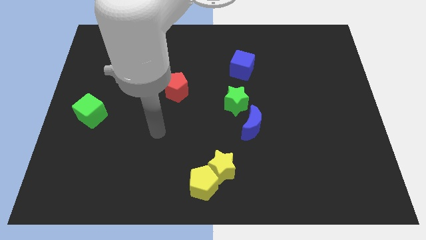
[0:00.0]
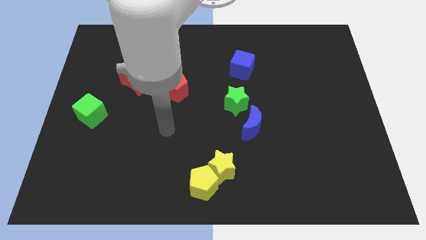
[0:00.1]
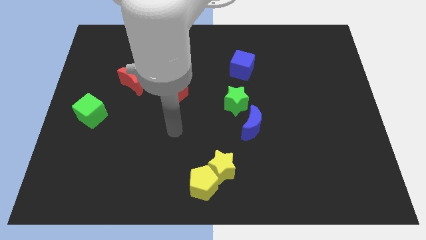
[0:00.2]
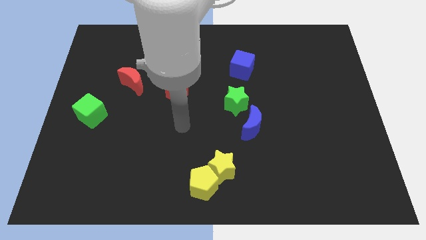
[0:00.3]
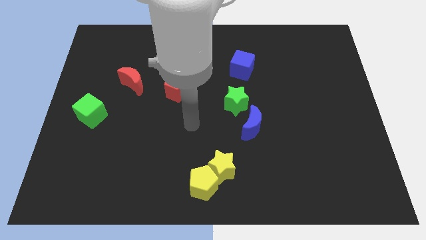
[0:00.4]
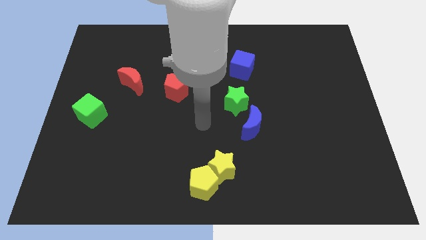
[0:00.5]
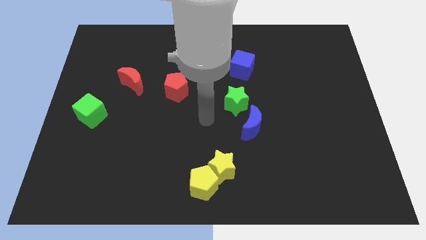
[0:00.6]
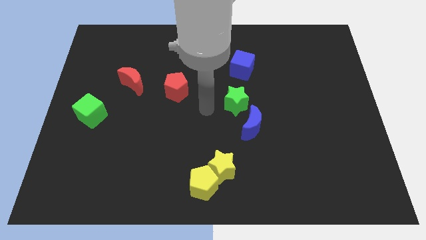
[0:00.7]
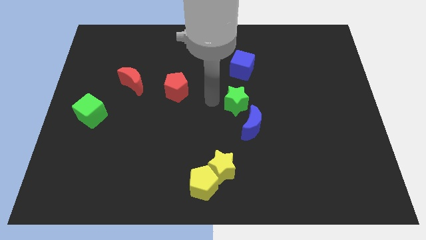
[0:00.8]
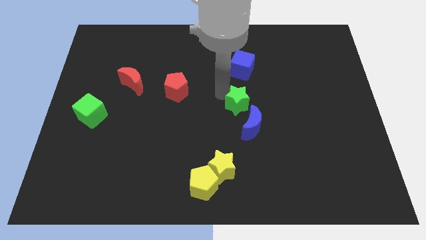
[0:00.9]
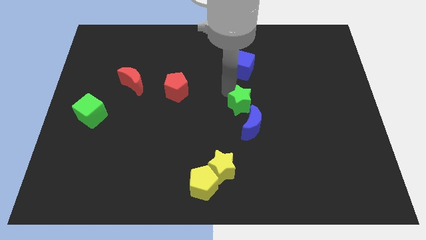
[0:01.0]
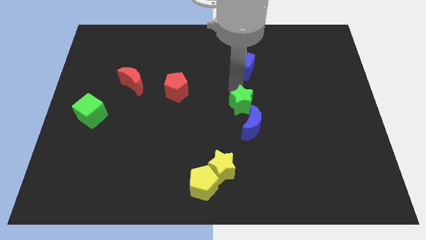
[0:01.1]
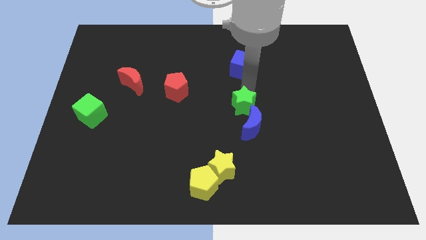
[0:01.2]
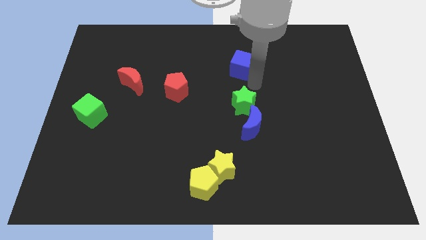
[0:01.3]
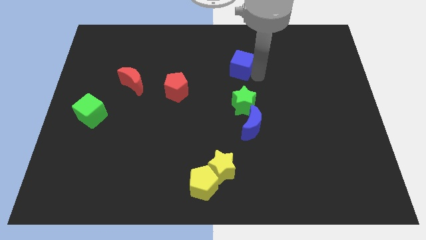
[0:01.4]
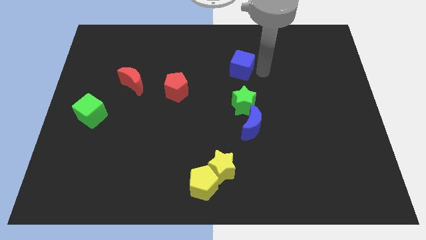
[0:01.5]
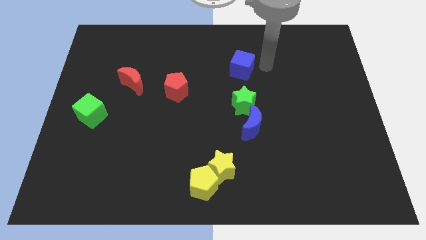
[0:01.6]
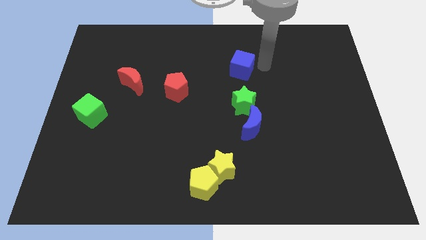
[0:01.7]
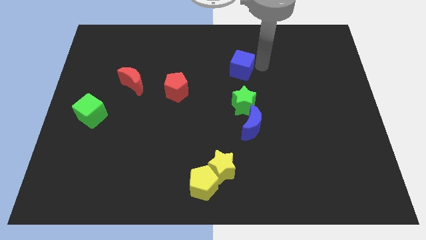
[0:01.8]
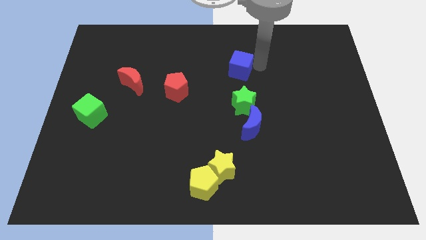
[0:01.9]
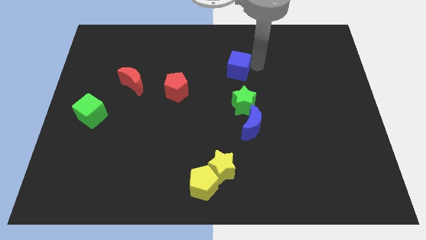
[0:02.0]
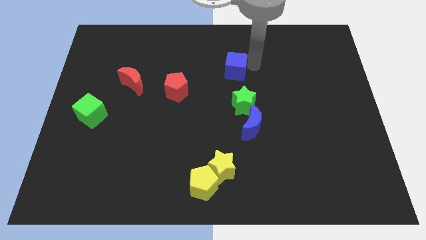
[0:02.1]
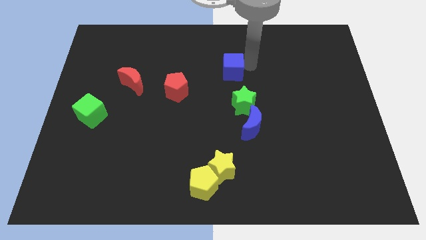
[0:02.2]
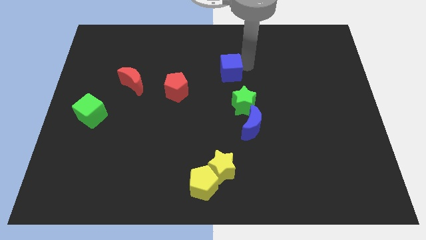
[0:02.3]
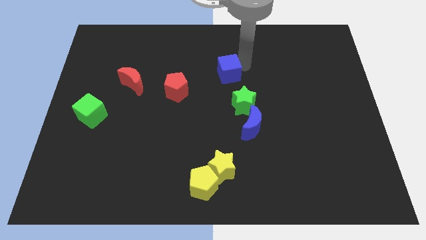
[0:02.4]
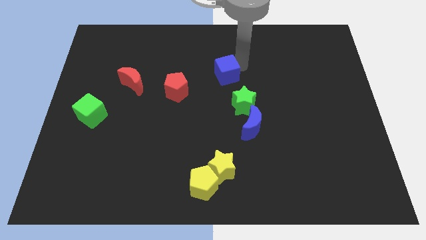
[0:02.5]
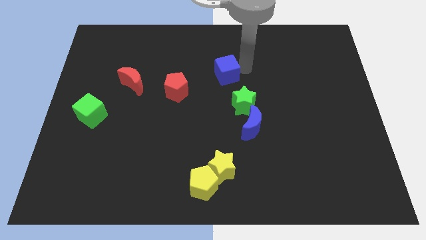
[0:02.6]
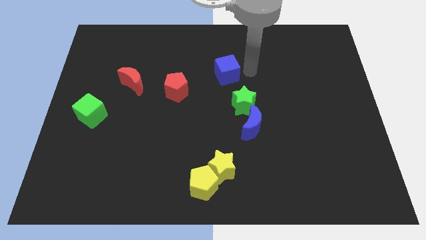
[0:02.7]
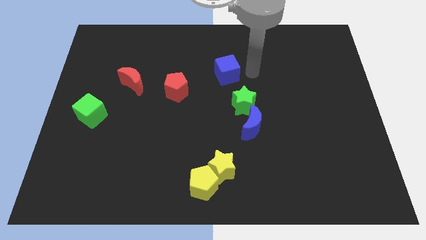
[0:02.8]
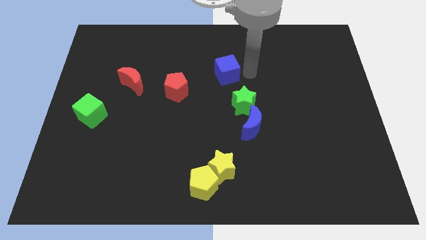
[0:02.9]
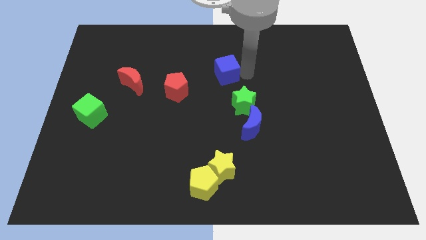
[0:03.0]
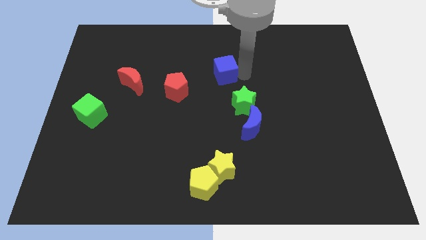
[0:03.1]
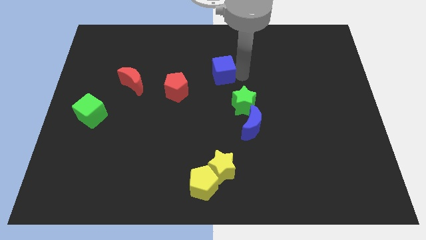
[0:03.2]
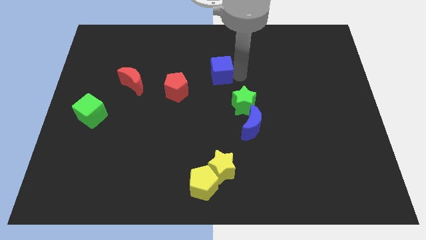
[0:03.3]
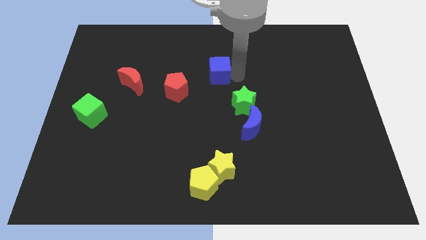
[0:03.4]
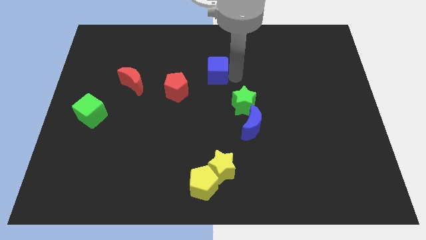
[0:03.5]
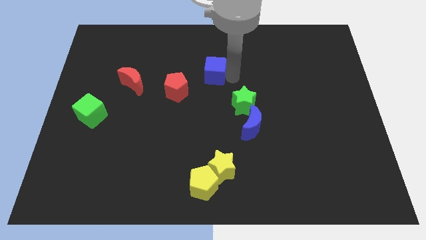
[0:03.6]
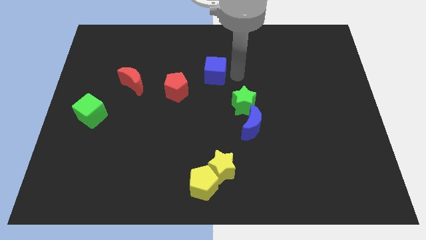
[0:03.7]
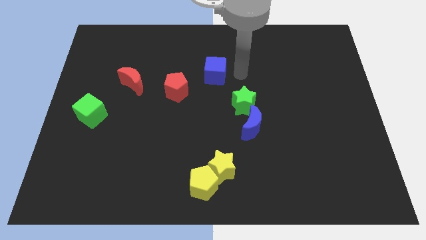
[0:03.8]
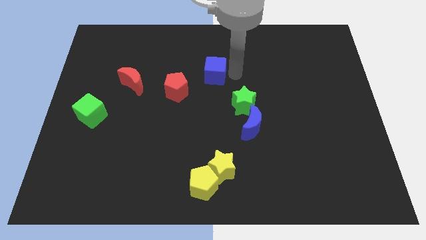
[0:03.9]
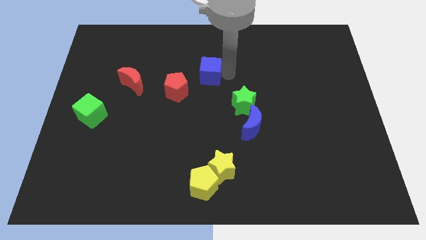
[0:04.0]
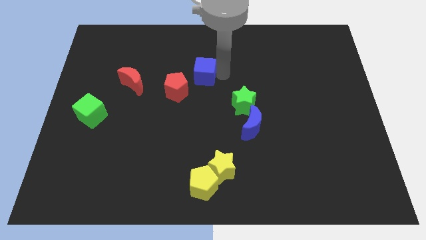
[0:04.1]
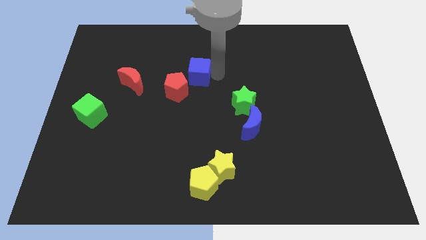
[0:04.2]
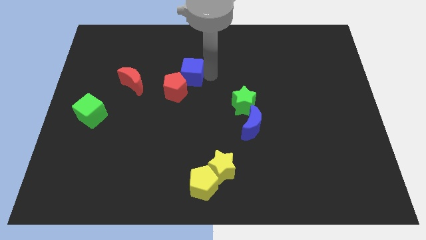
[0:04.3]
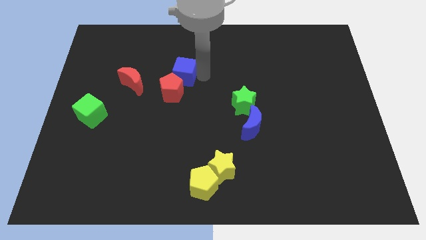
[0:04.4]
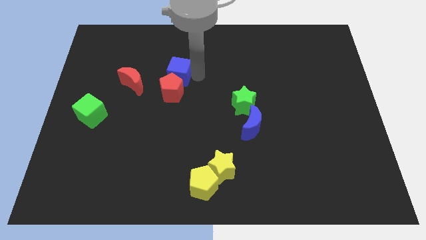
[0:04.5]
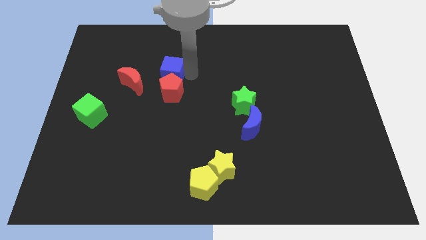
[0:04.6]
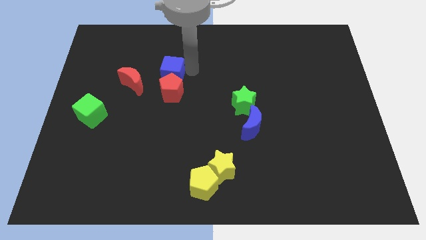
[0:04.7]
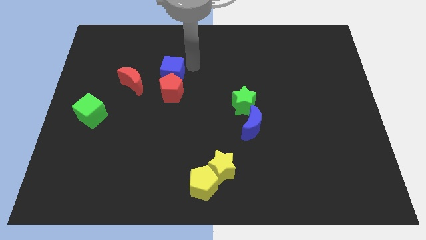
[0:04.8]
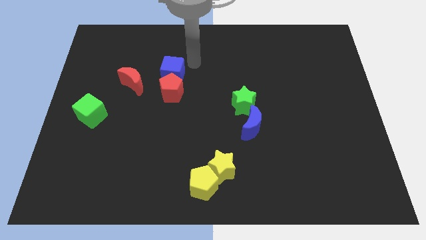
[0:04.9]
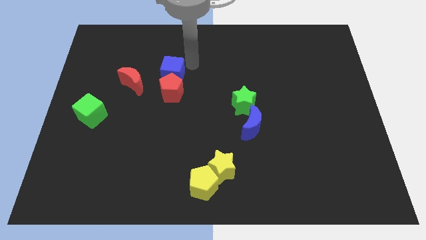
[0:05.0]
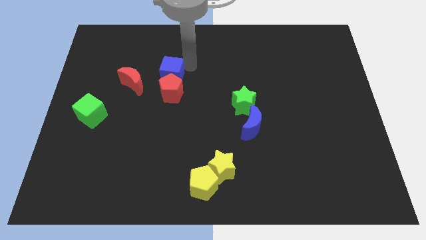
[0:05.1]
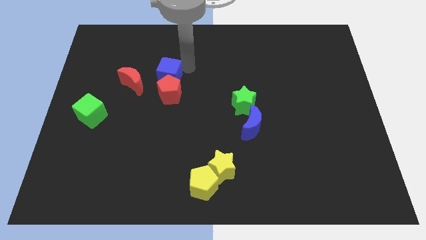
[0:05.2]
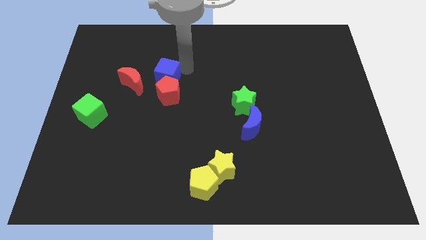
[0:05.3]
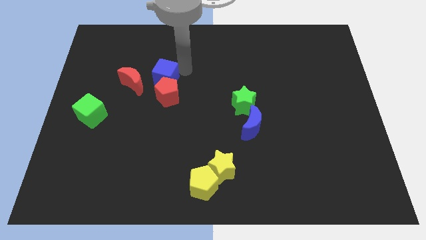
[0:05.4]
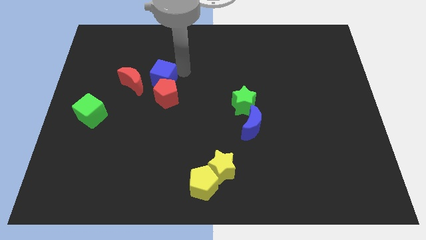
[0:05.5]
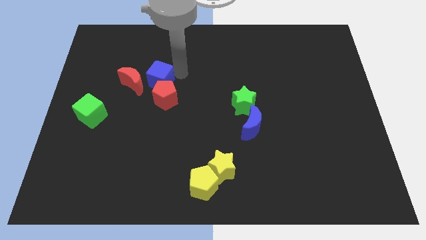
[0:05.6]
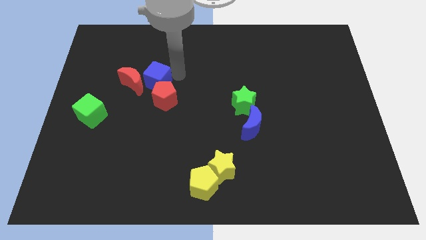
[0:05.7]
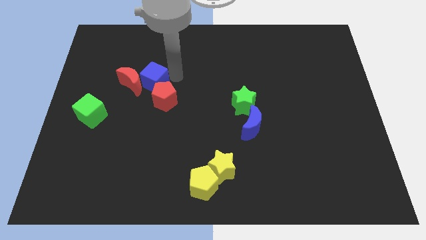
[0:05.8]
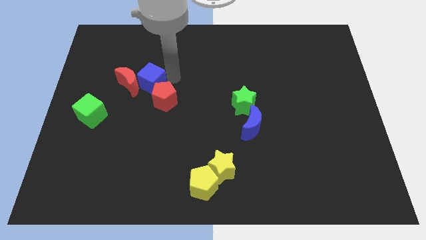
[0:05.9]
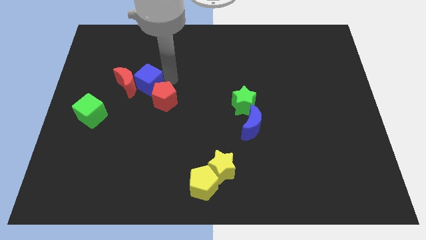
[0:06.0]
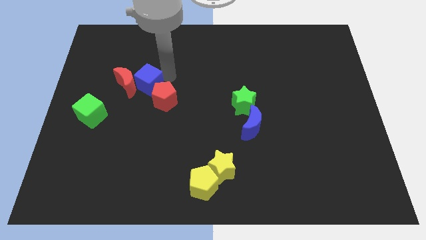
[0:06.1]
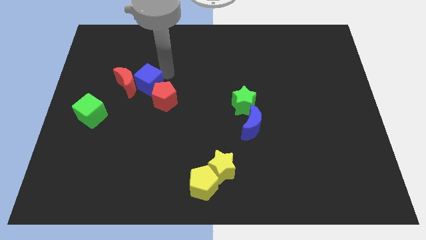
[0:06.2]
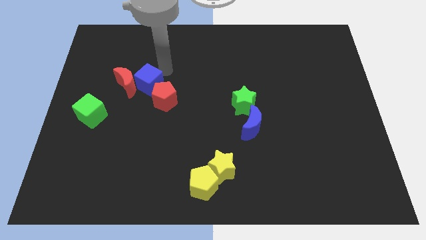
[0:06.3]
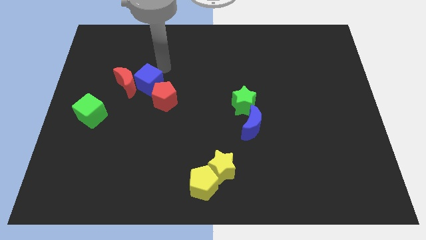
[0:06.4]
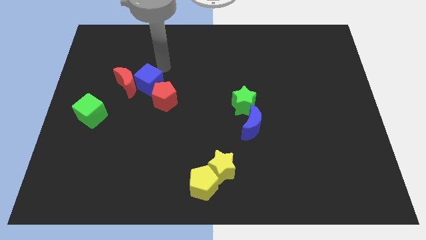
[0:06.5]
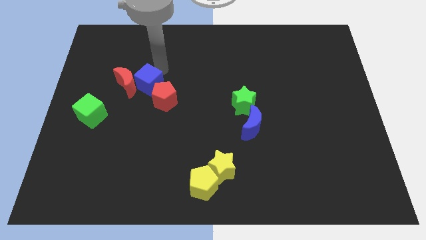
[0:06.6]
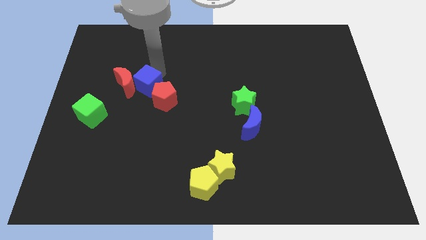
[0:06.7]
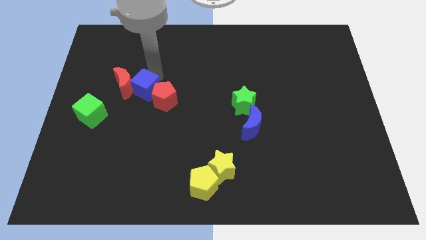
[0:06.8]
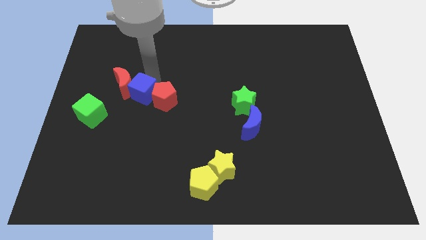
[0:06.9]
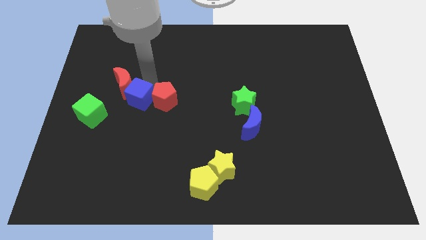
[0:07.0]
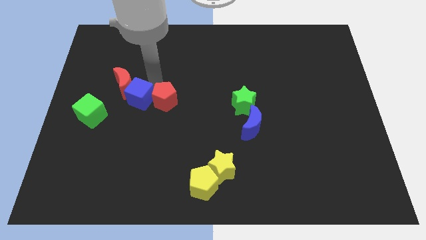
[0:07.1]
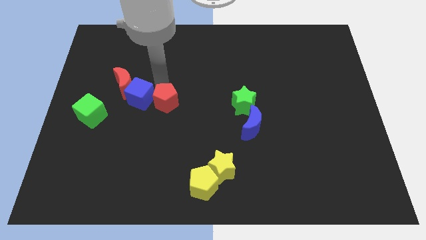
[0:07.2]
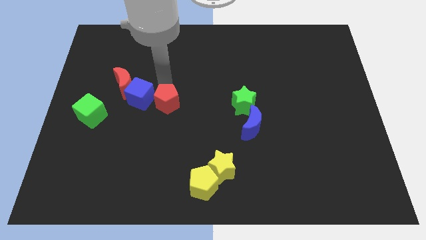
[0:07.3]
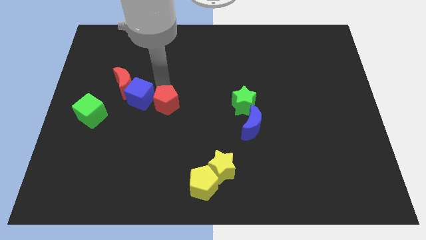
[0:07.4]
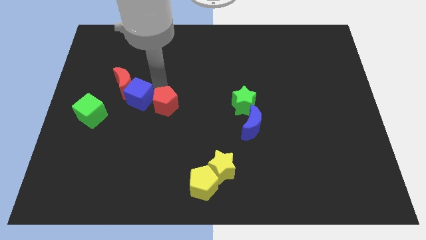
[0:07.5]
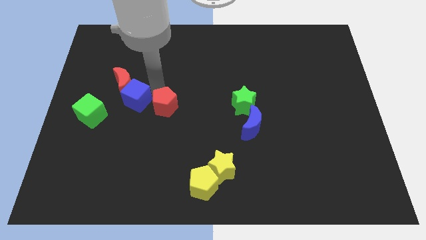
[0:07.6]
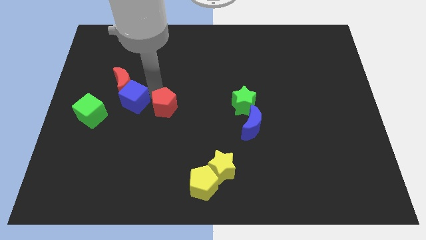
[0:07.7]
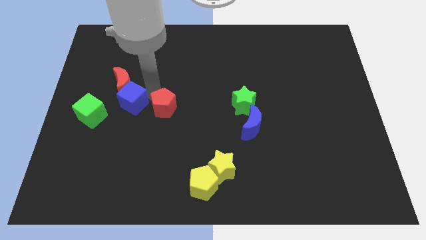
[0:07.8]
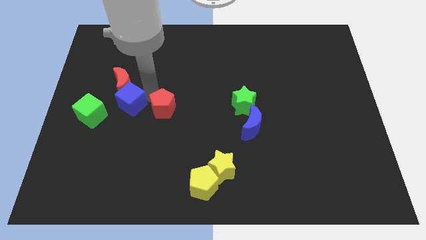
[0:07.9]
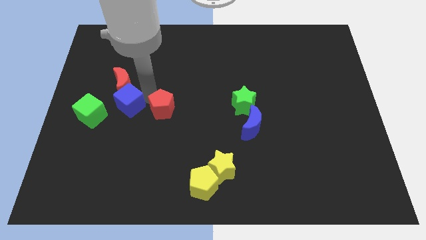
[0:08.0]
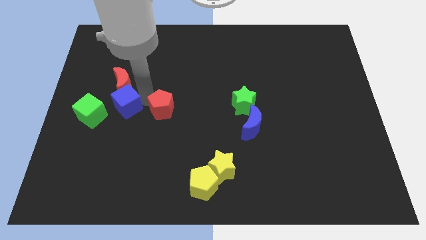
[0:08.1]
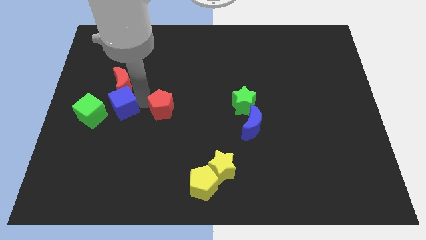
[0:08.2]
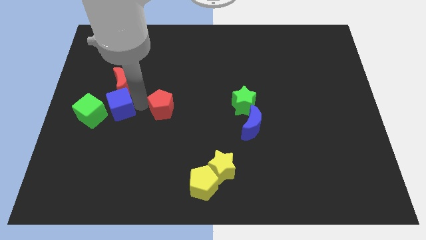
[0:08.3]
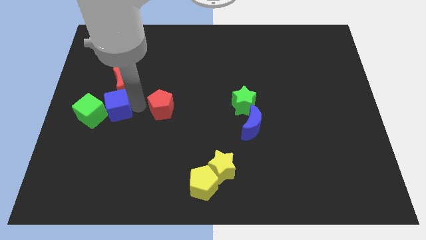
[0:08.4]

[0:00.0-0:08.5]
put the blue cube towards the green cube
